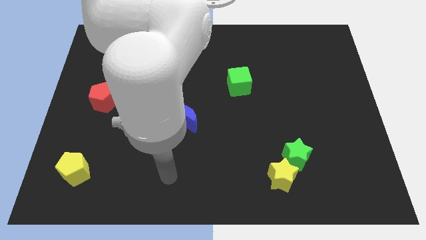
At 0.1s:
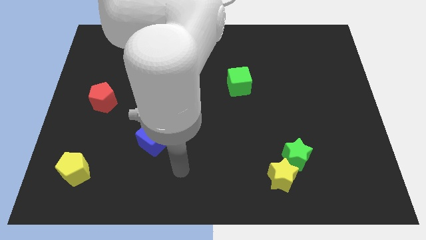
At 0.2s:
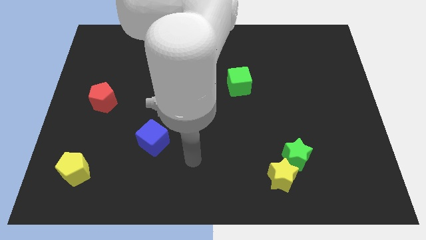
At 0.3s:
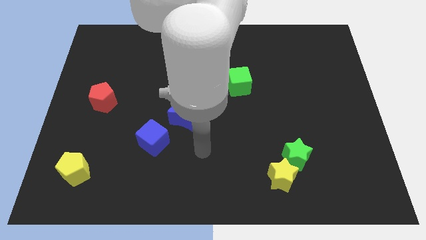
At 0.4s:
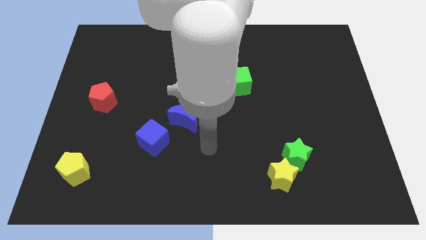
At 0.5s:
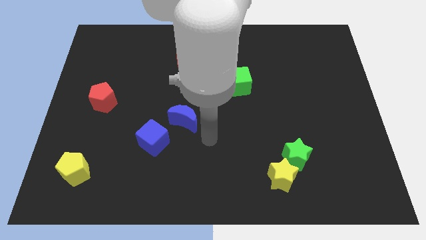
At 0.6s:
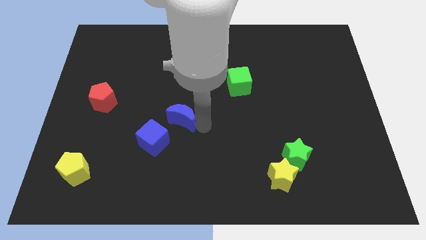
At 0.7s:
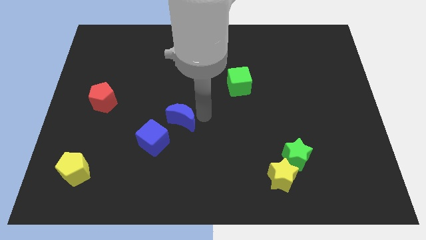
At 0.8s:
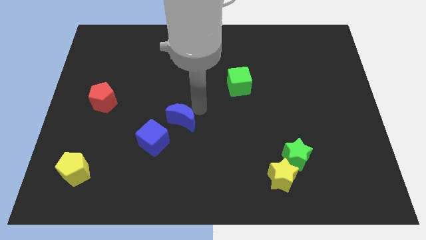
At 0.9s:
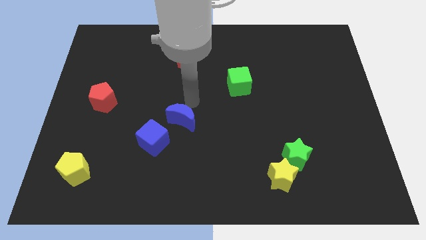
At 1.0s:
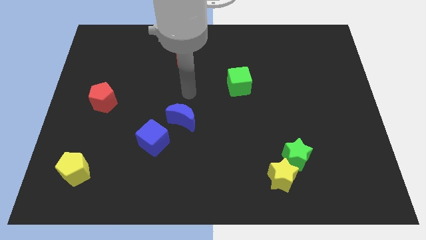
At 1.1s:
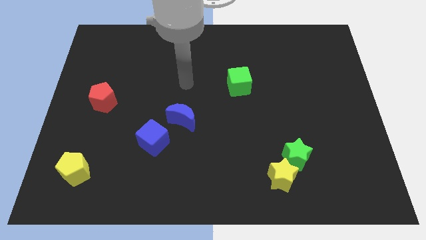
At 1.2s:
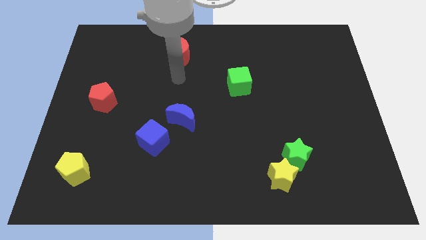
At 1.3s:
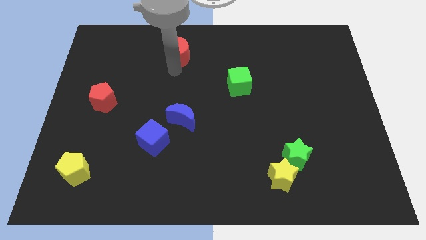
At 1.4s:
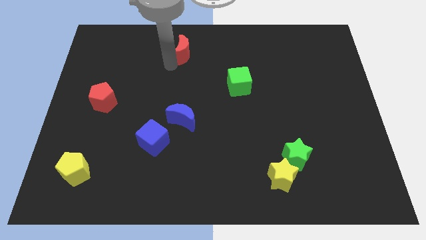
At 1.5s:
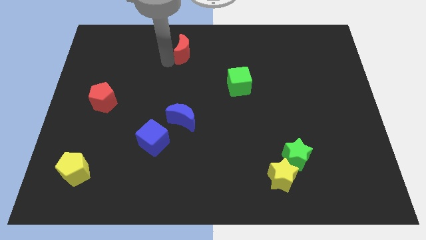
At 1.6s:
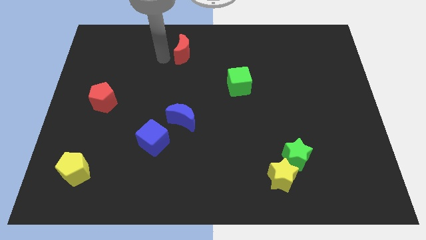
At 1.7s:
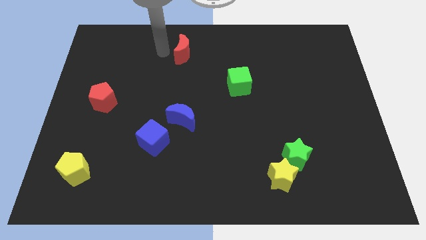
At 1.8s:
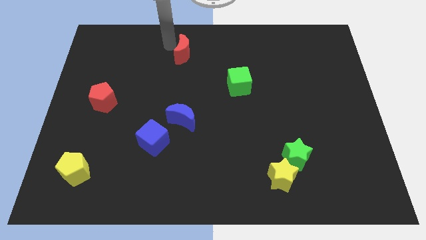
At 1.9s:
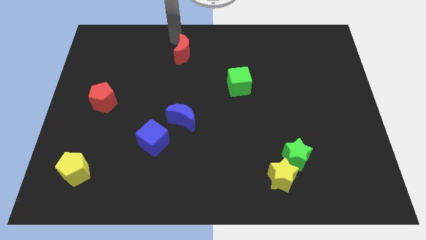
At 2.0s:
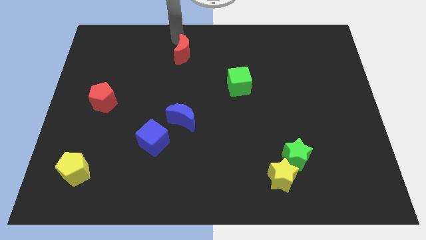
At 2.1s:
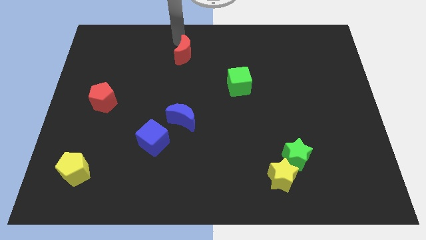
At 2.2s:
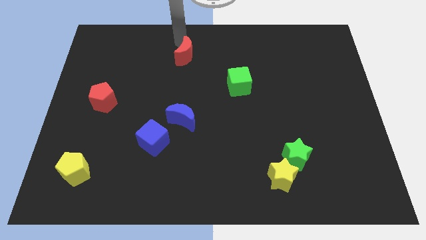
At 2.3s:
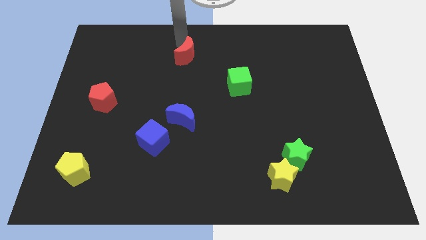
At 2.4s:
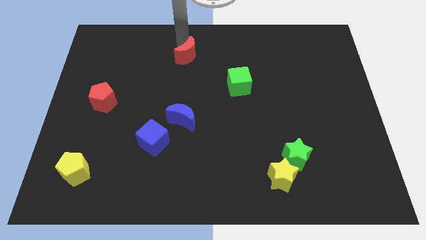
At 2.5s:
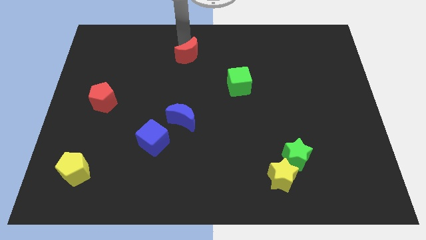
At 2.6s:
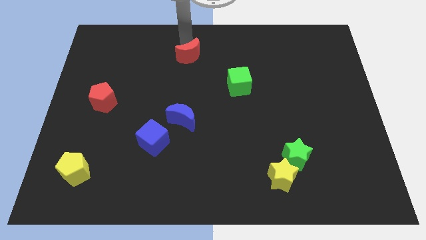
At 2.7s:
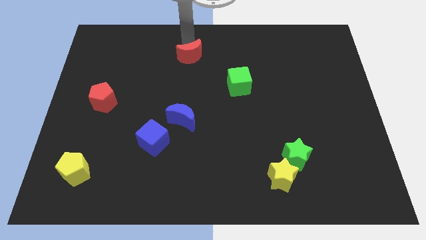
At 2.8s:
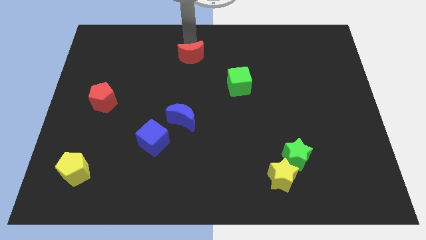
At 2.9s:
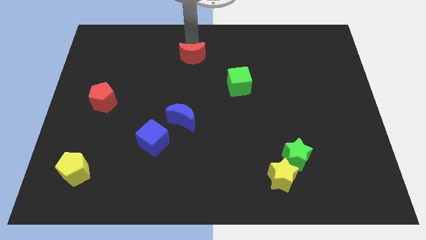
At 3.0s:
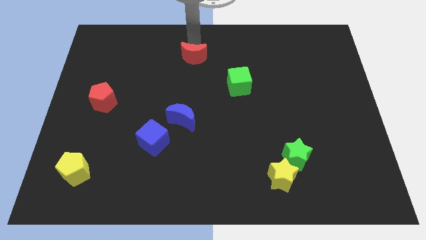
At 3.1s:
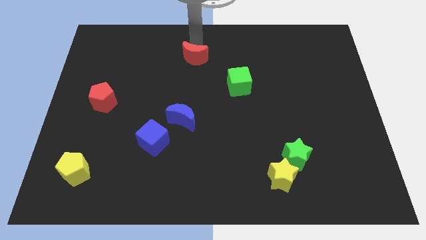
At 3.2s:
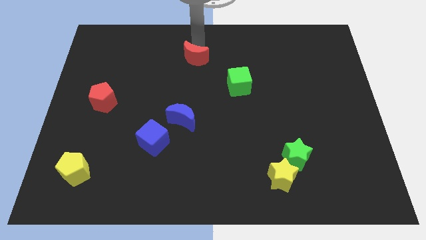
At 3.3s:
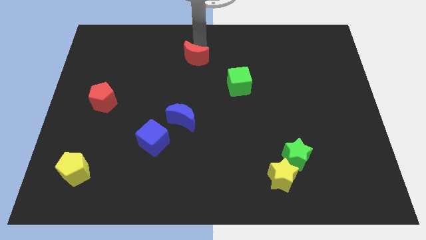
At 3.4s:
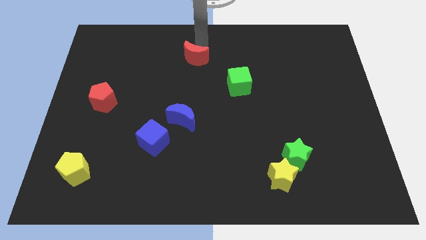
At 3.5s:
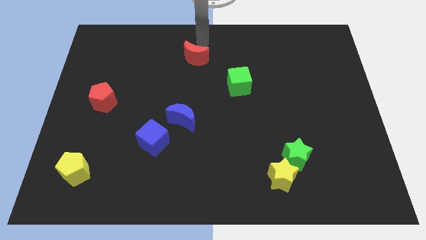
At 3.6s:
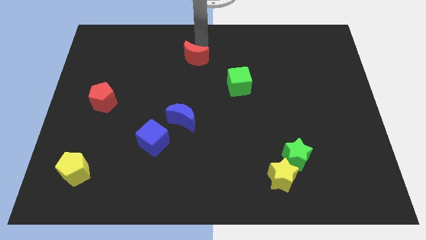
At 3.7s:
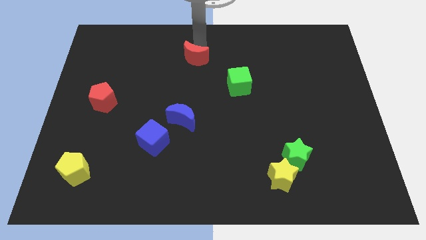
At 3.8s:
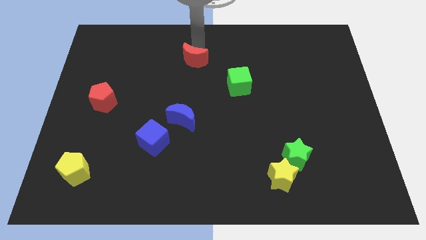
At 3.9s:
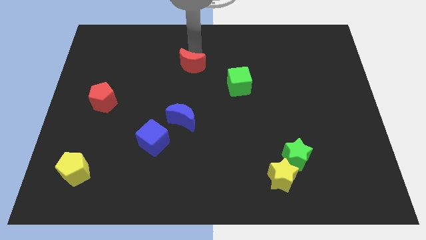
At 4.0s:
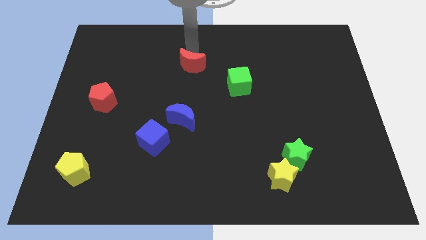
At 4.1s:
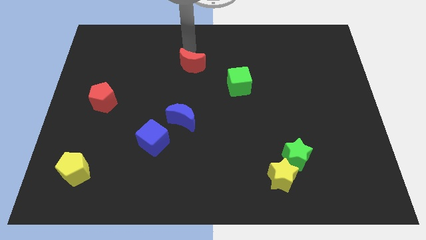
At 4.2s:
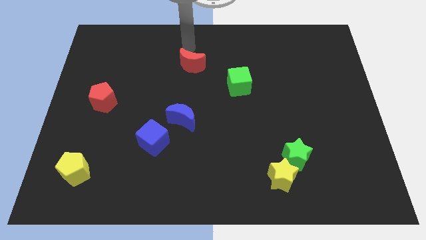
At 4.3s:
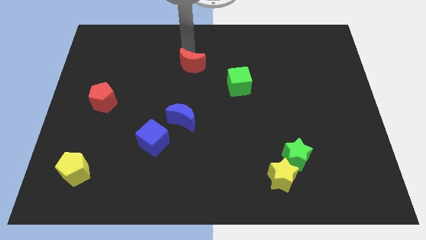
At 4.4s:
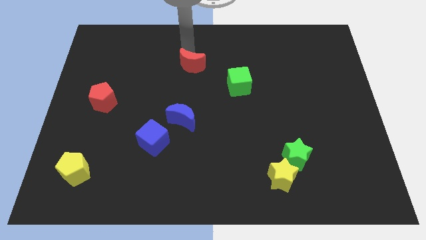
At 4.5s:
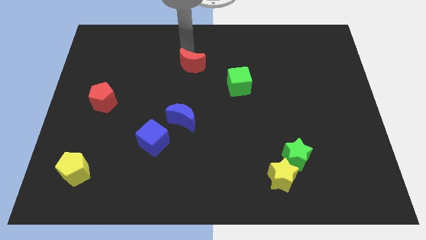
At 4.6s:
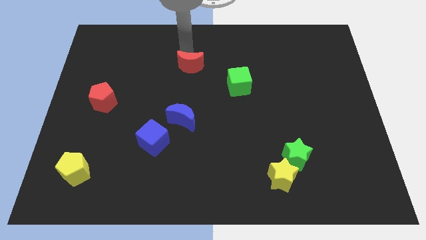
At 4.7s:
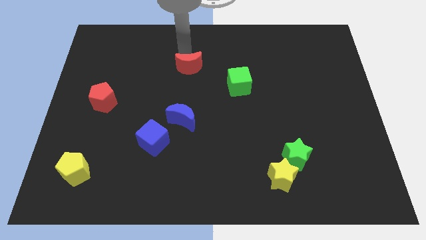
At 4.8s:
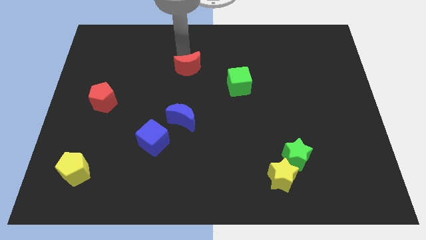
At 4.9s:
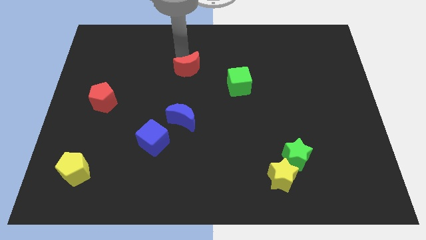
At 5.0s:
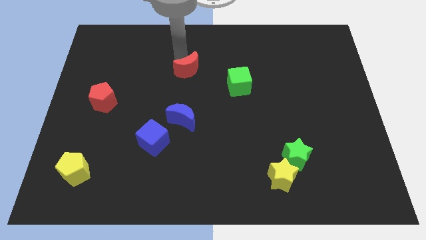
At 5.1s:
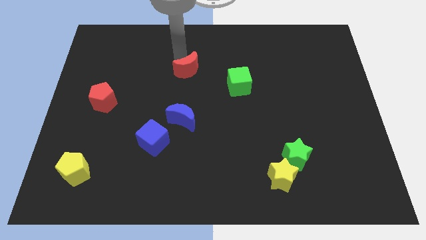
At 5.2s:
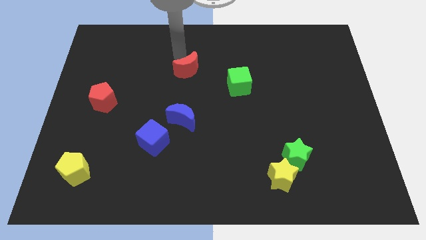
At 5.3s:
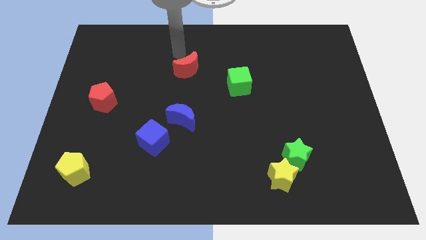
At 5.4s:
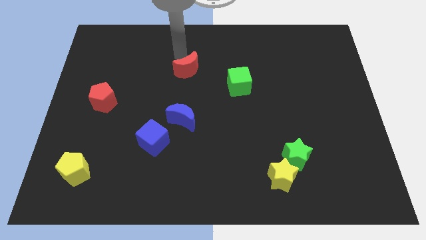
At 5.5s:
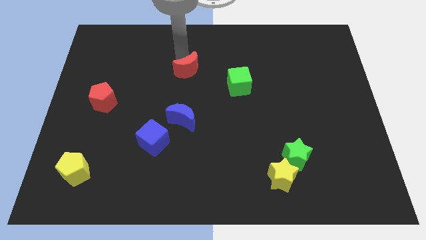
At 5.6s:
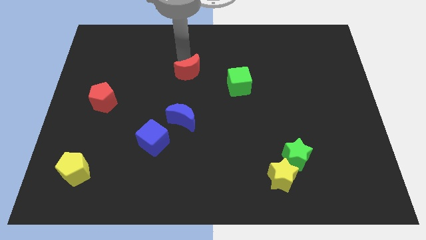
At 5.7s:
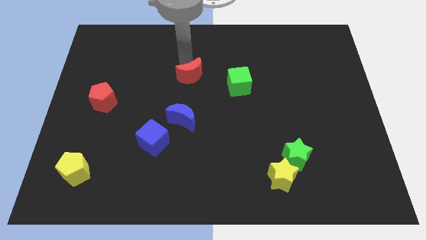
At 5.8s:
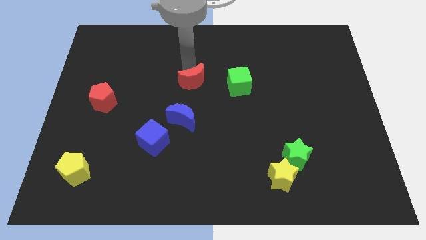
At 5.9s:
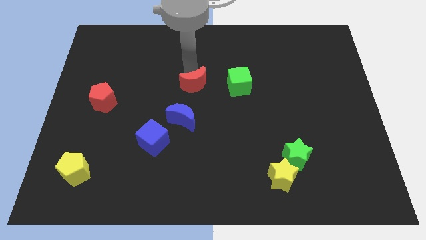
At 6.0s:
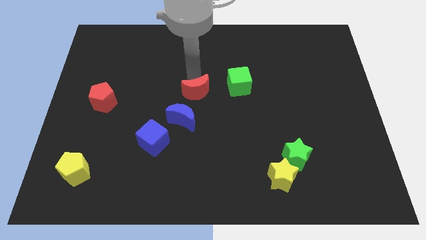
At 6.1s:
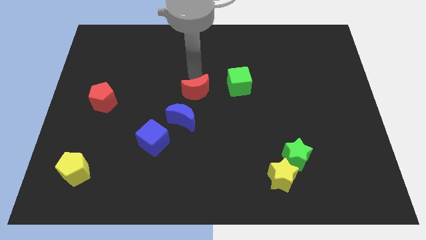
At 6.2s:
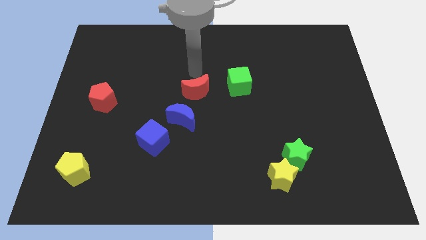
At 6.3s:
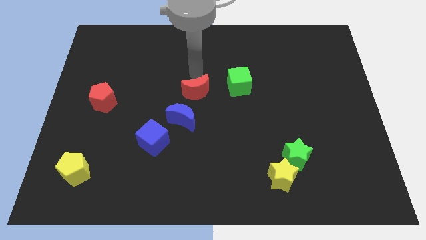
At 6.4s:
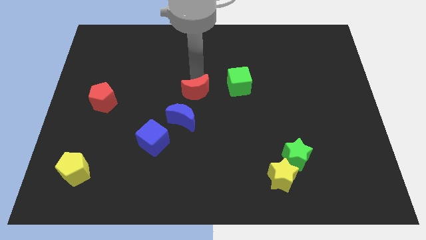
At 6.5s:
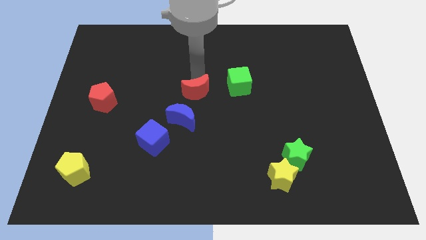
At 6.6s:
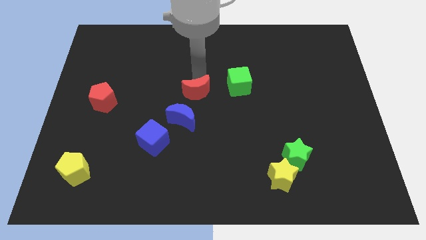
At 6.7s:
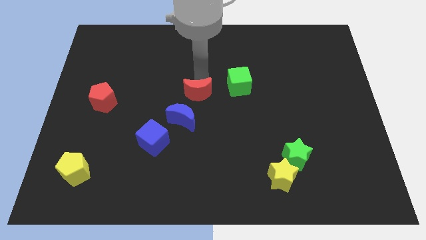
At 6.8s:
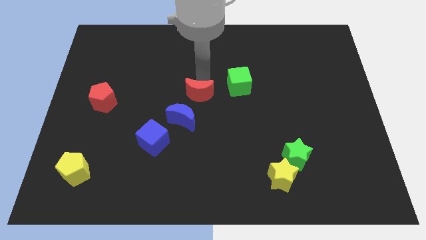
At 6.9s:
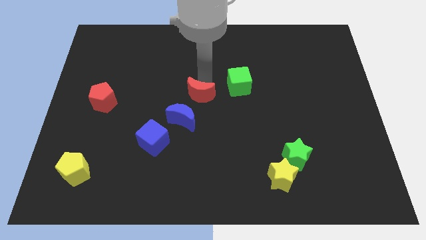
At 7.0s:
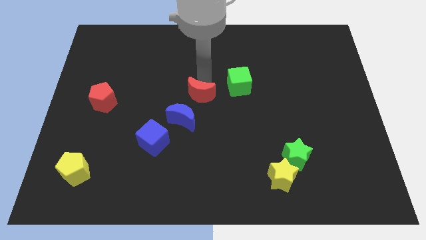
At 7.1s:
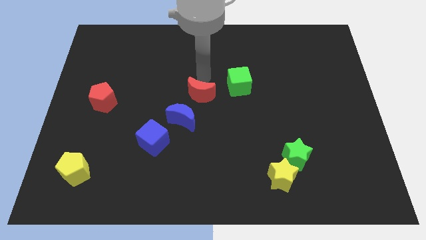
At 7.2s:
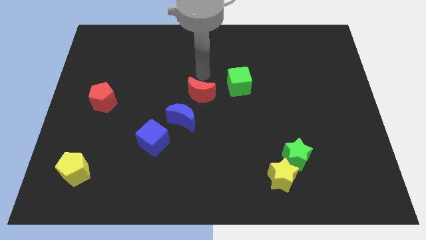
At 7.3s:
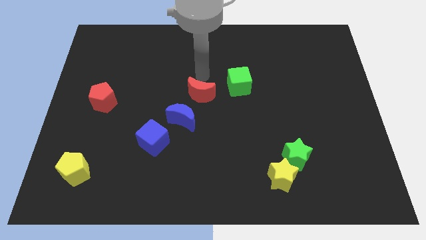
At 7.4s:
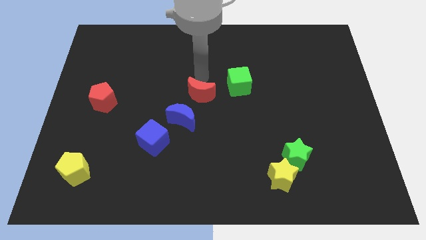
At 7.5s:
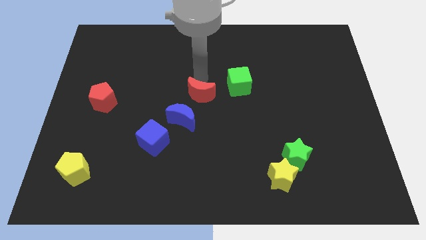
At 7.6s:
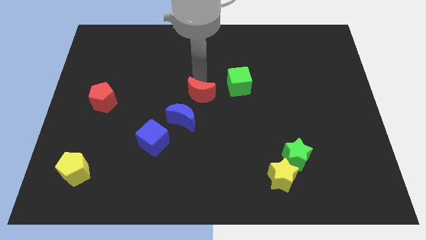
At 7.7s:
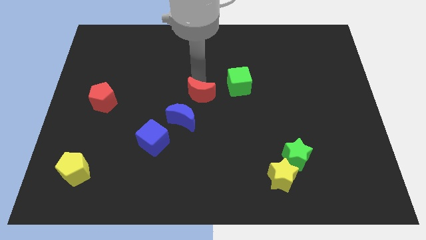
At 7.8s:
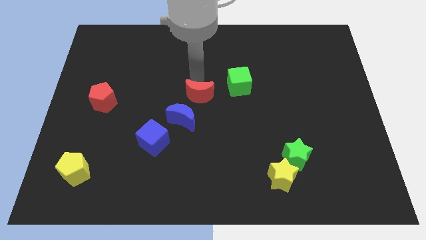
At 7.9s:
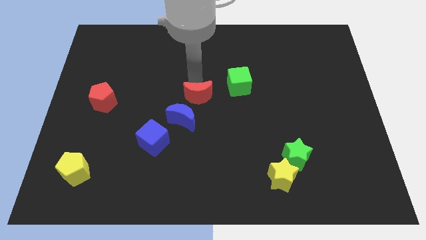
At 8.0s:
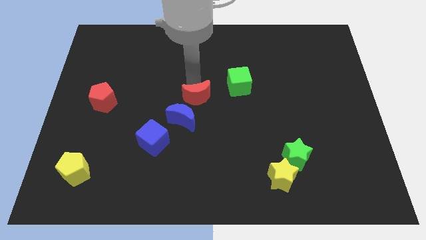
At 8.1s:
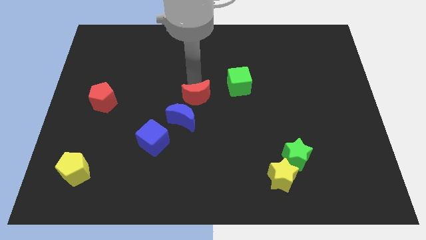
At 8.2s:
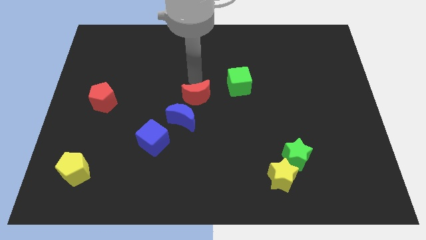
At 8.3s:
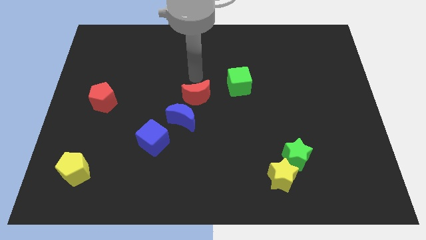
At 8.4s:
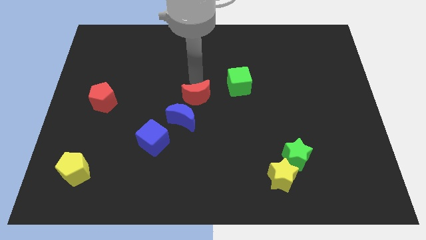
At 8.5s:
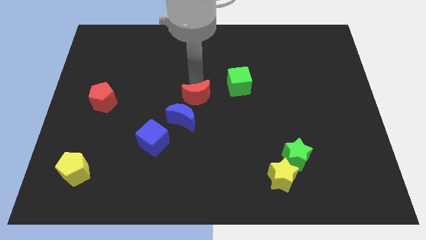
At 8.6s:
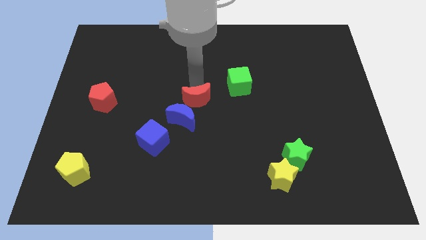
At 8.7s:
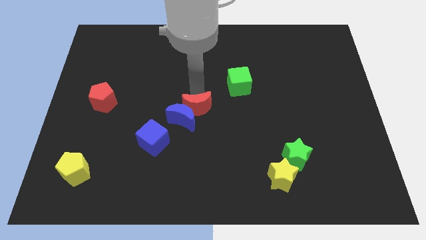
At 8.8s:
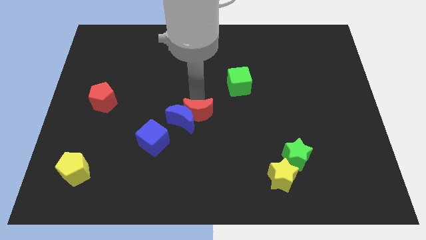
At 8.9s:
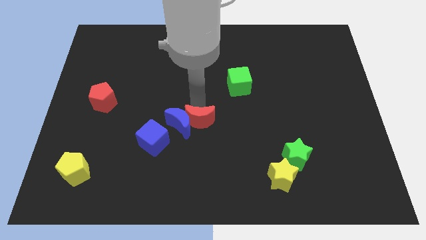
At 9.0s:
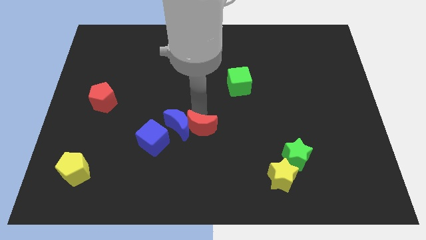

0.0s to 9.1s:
move the red moon just right of the blue cube
